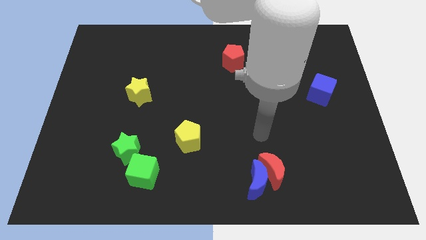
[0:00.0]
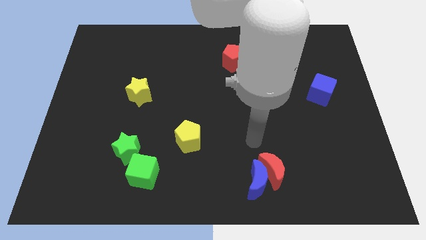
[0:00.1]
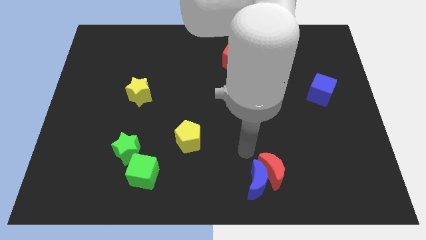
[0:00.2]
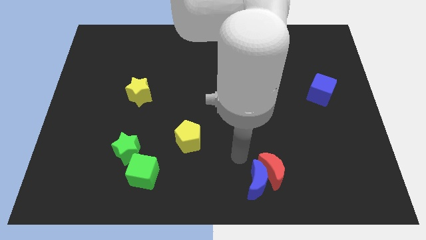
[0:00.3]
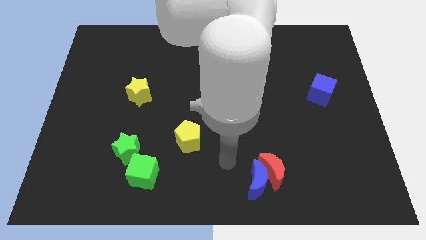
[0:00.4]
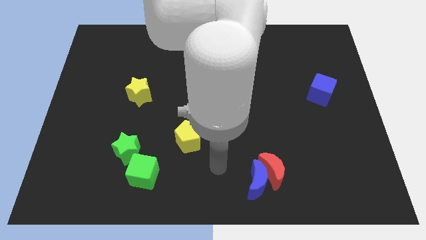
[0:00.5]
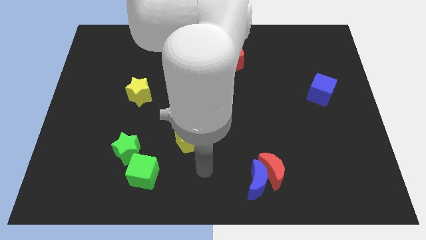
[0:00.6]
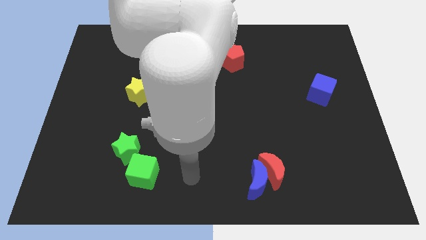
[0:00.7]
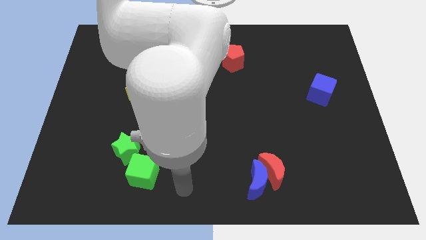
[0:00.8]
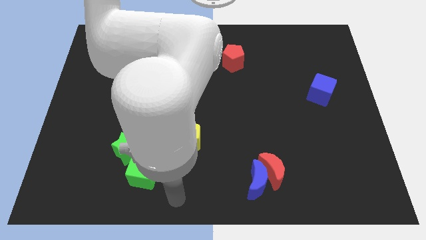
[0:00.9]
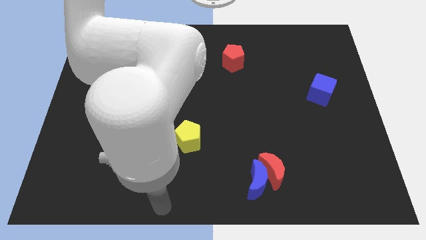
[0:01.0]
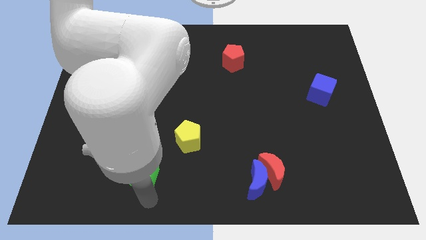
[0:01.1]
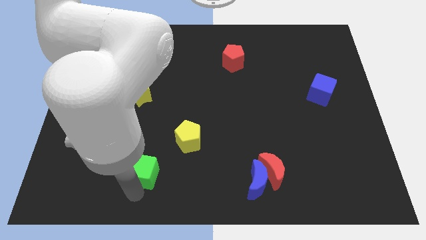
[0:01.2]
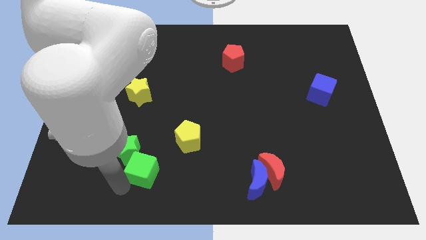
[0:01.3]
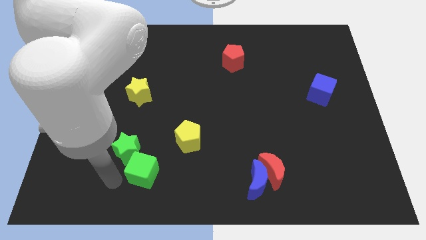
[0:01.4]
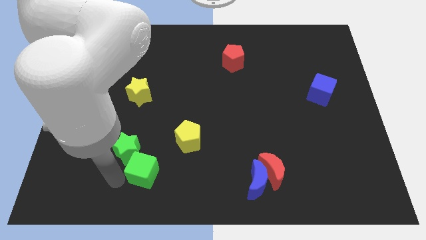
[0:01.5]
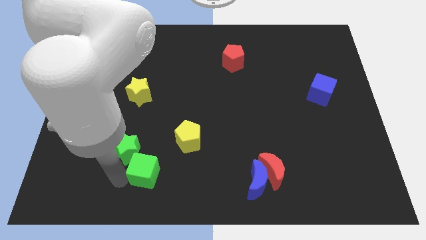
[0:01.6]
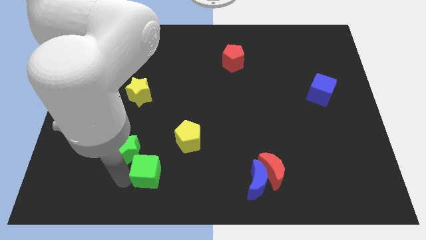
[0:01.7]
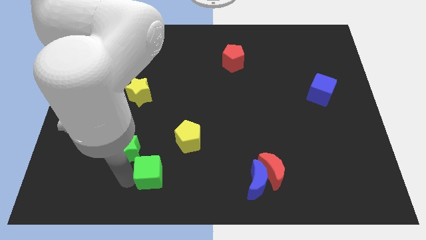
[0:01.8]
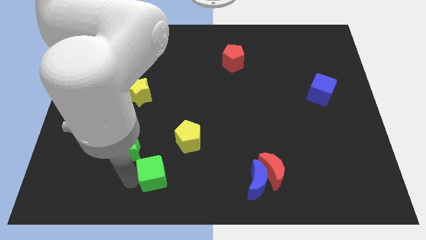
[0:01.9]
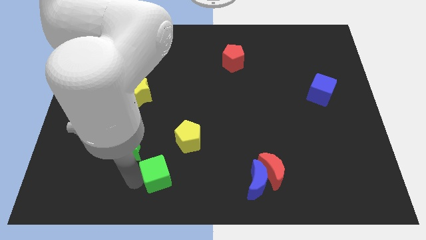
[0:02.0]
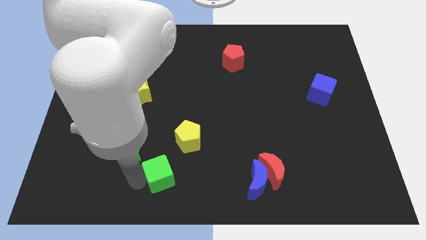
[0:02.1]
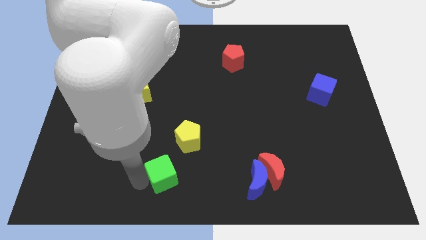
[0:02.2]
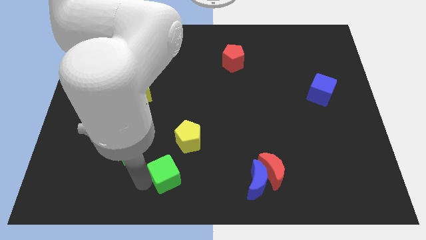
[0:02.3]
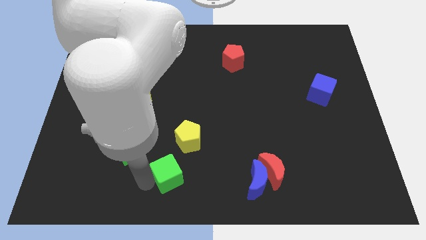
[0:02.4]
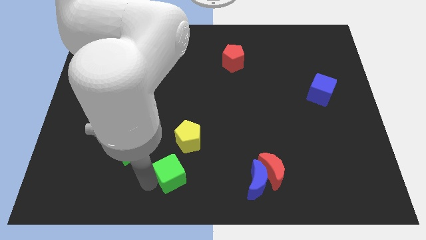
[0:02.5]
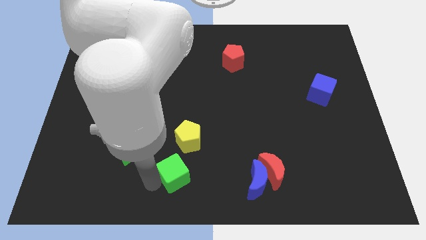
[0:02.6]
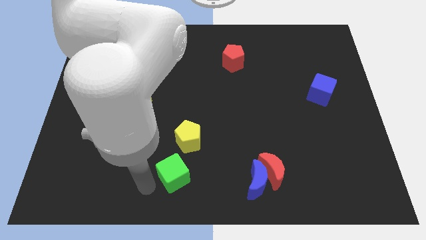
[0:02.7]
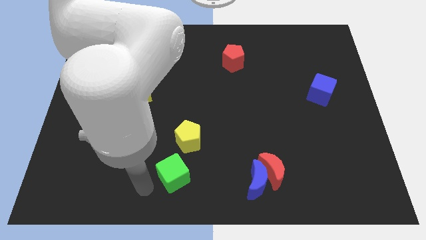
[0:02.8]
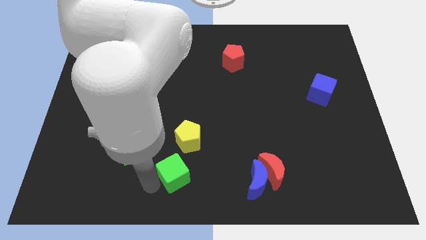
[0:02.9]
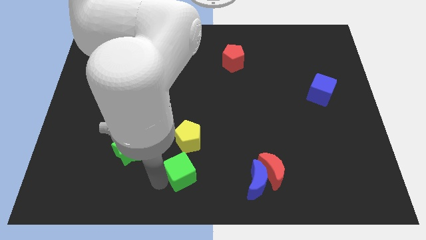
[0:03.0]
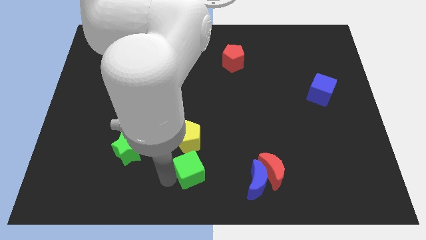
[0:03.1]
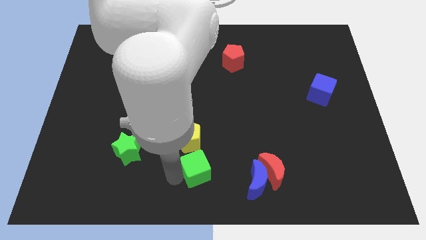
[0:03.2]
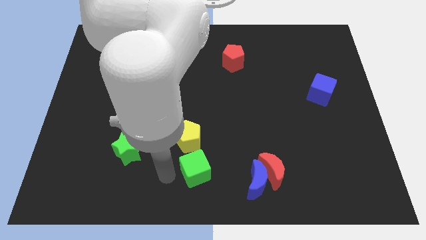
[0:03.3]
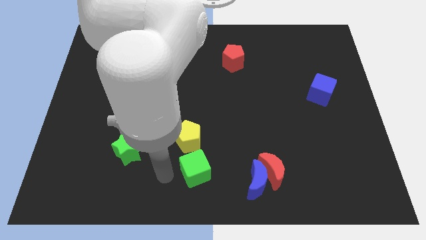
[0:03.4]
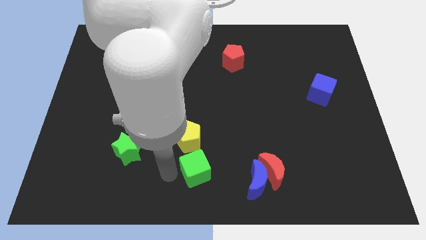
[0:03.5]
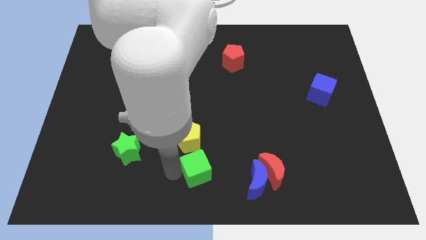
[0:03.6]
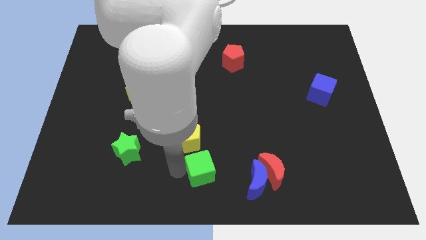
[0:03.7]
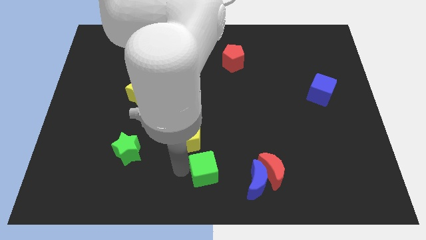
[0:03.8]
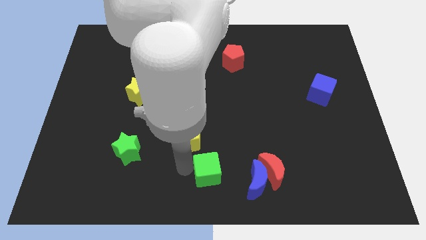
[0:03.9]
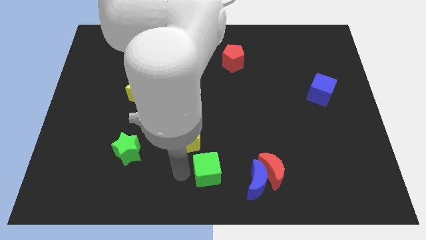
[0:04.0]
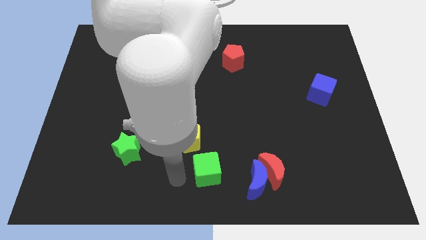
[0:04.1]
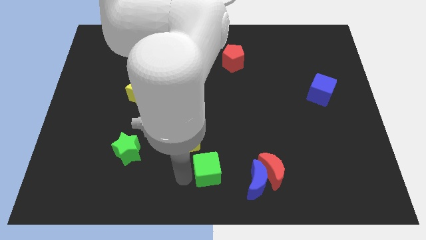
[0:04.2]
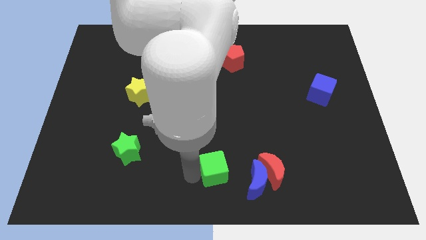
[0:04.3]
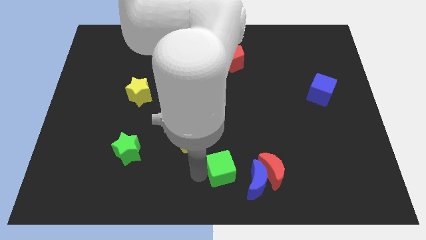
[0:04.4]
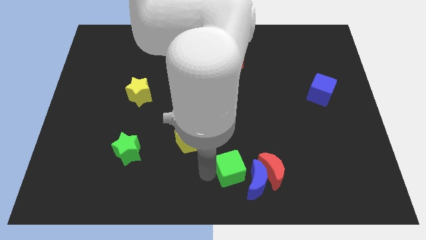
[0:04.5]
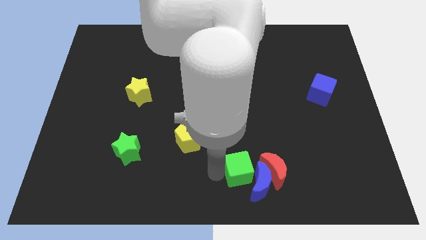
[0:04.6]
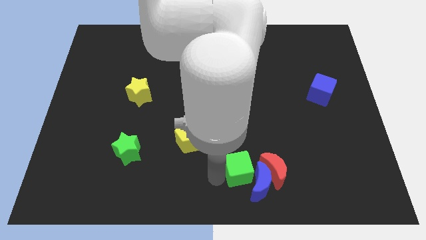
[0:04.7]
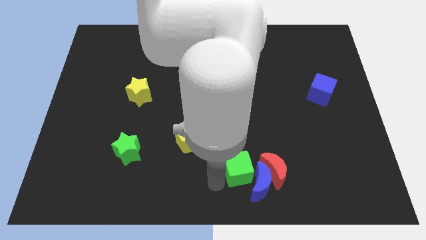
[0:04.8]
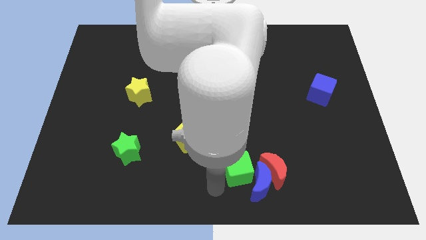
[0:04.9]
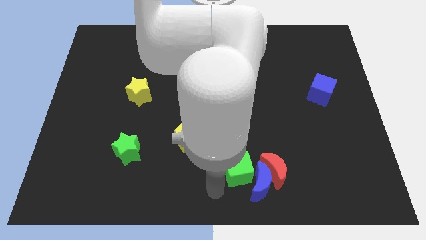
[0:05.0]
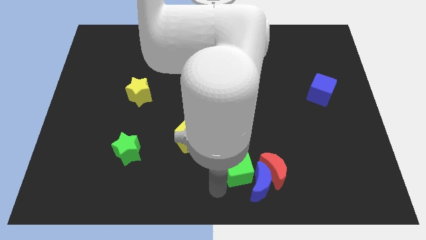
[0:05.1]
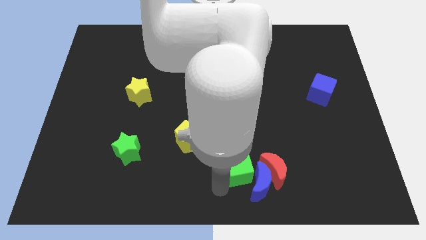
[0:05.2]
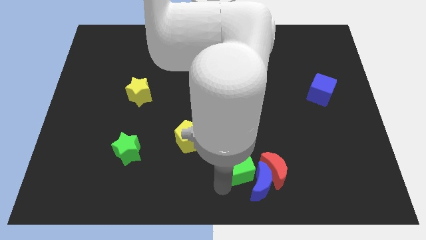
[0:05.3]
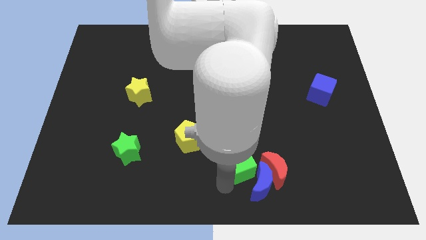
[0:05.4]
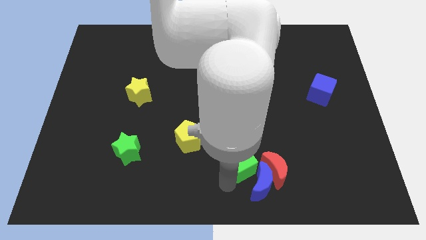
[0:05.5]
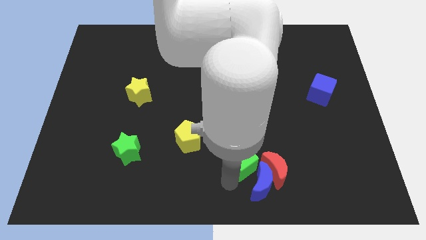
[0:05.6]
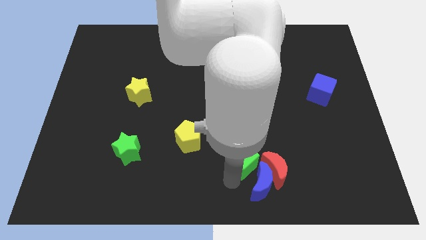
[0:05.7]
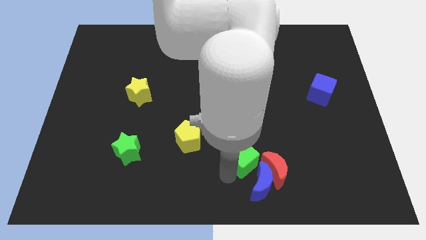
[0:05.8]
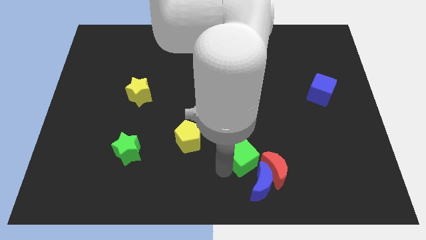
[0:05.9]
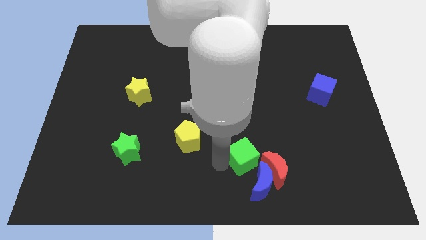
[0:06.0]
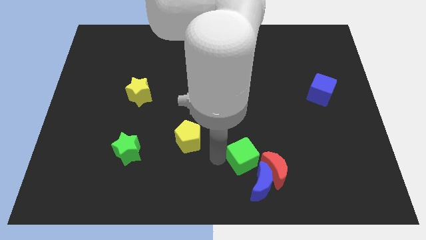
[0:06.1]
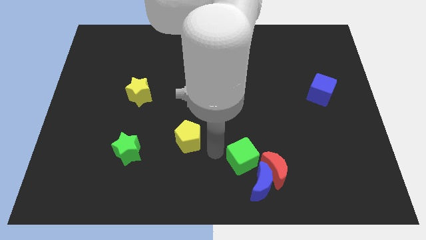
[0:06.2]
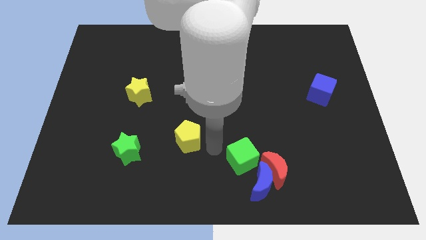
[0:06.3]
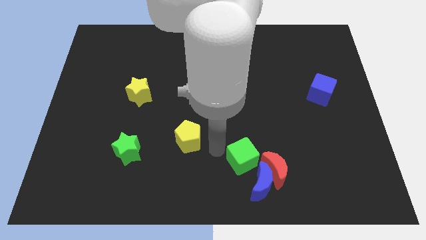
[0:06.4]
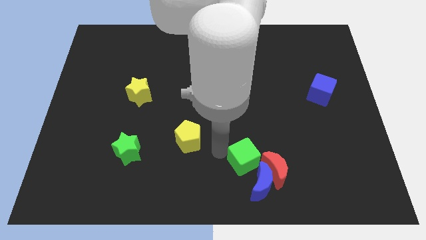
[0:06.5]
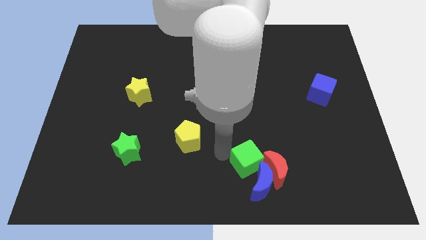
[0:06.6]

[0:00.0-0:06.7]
move the green cube towards the red moon
